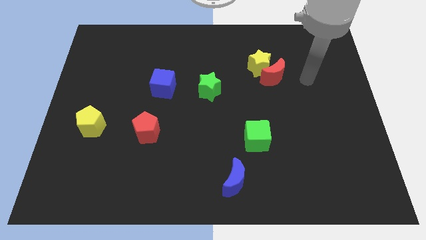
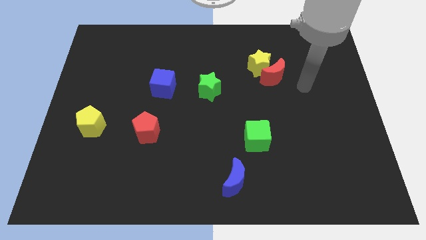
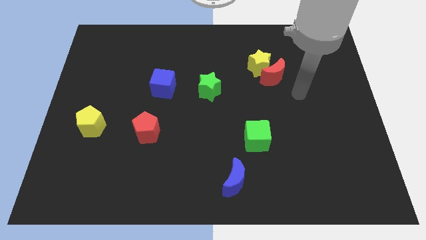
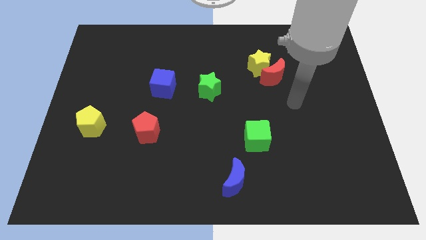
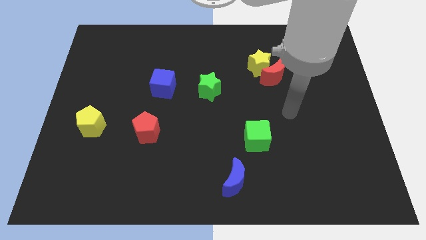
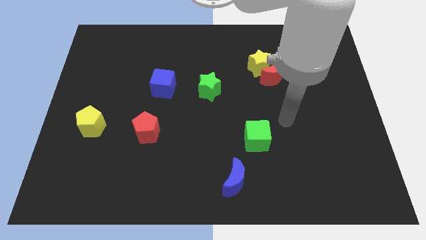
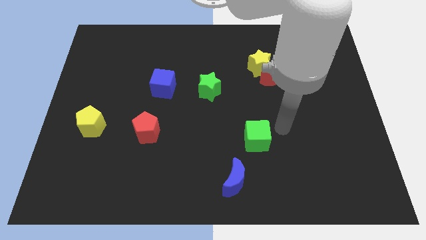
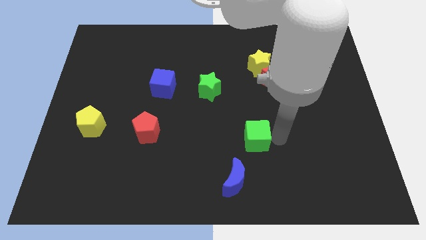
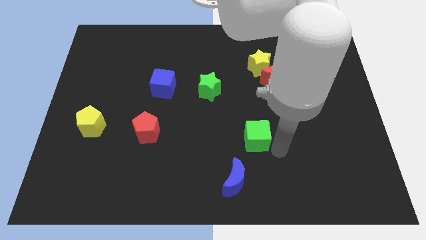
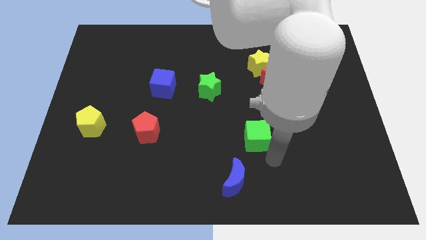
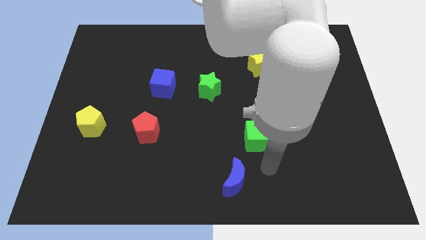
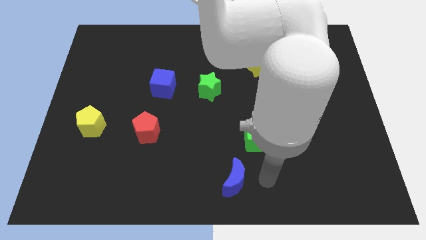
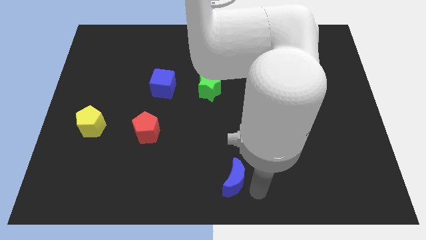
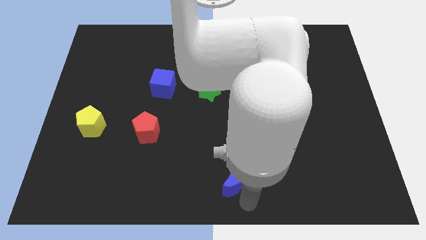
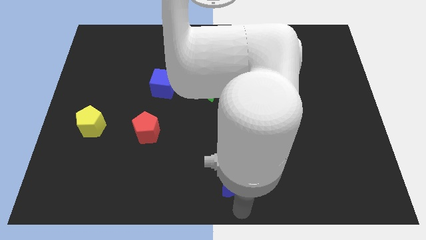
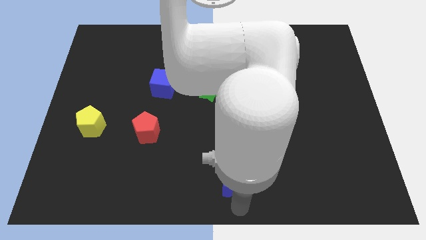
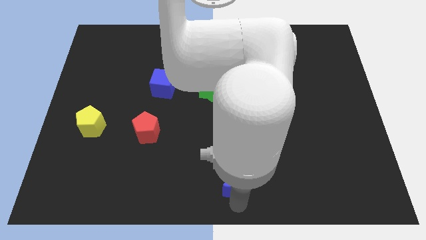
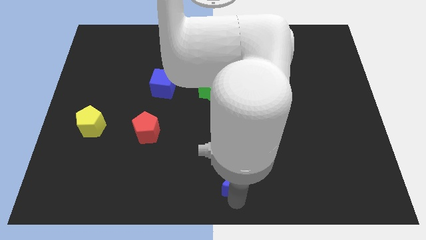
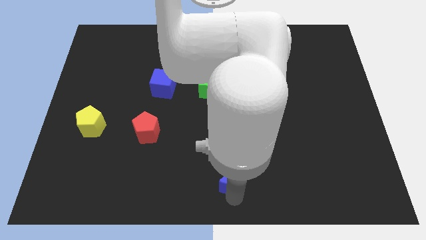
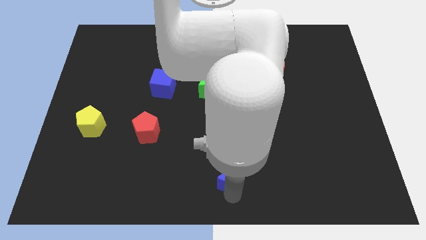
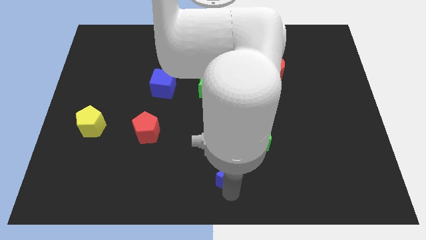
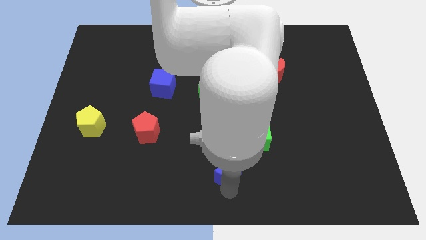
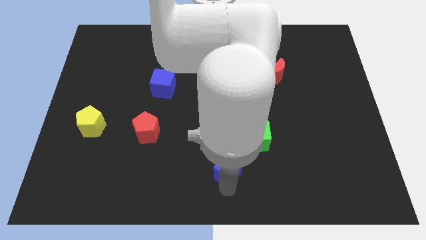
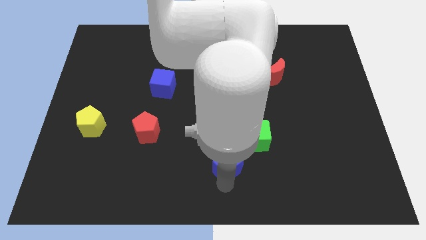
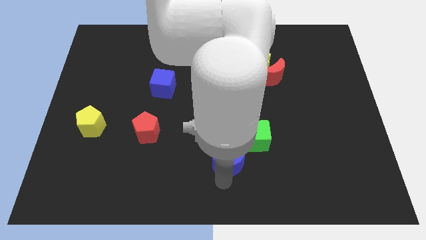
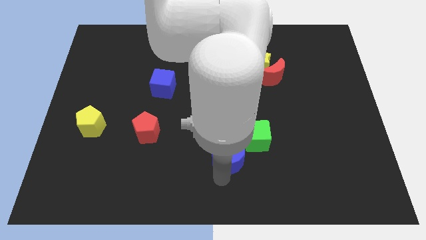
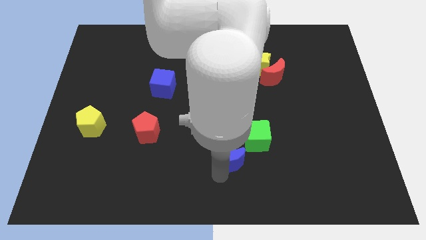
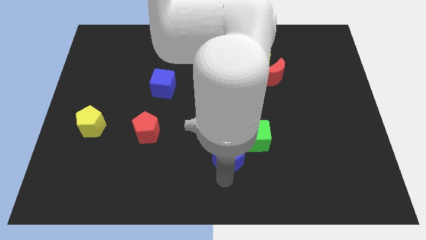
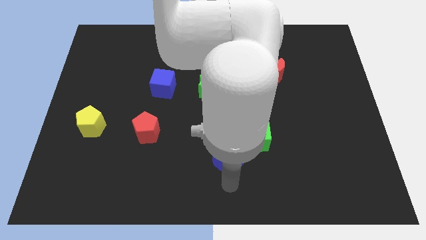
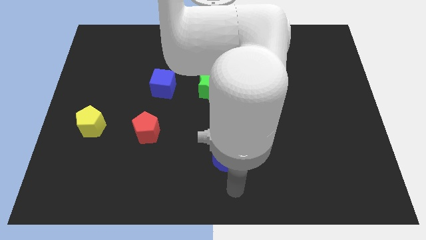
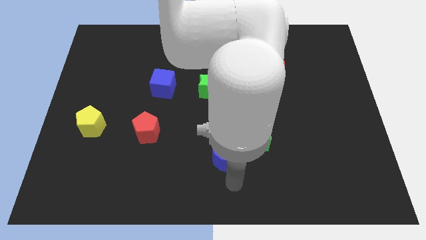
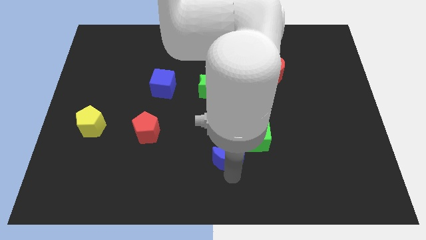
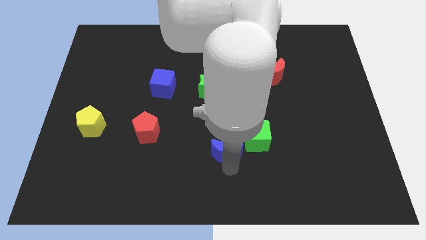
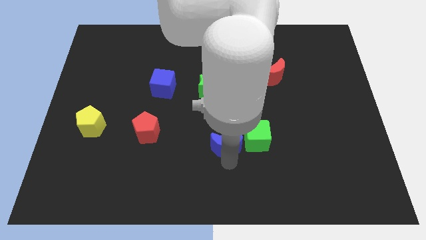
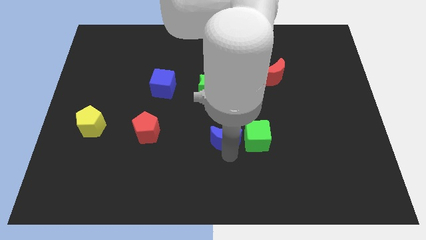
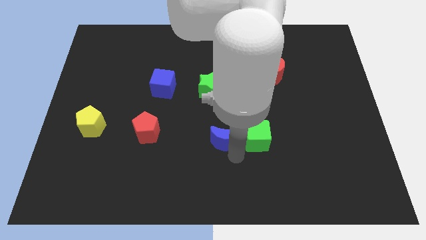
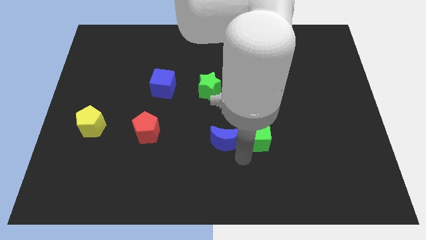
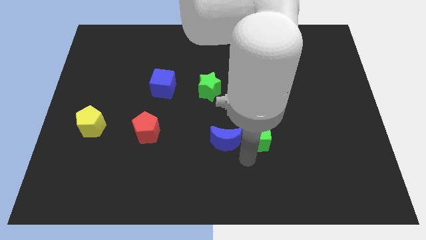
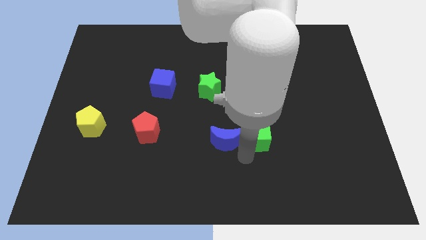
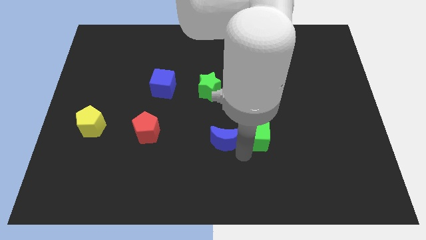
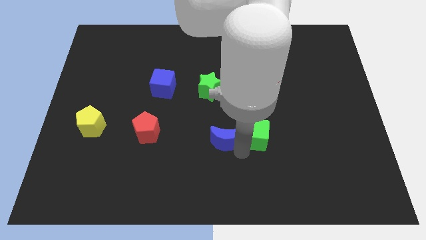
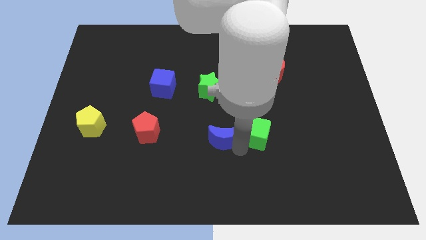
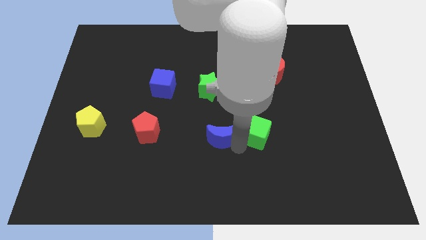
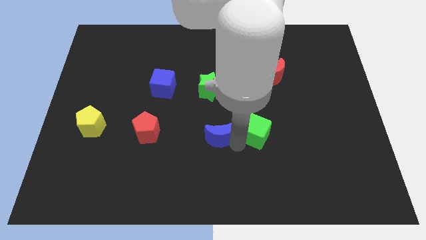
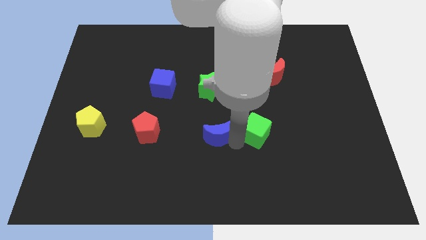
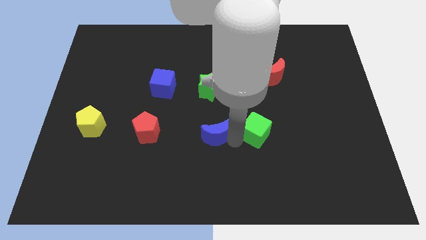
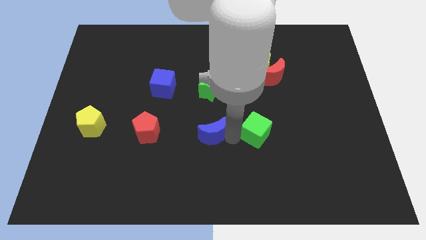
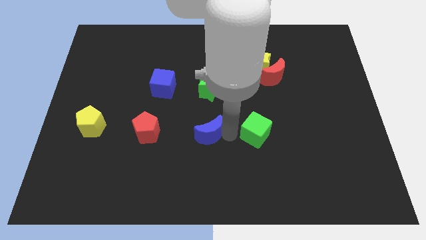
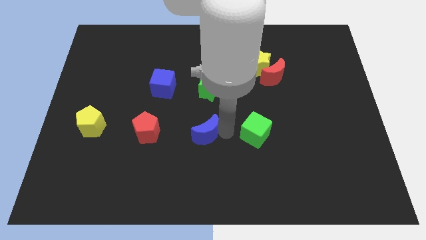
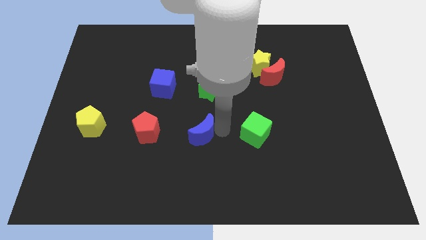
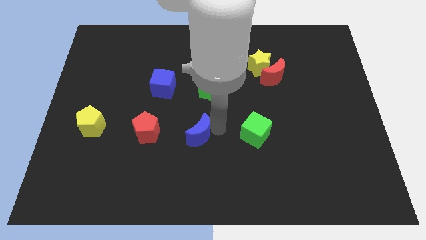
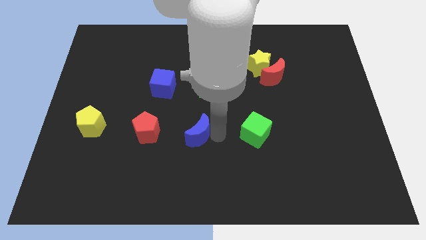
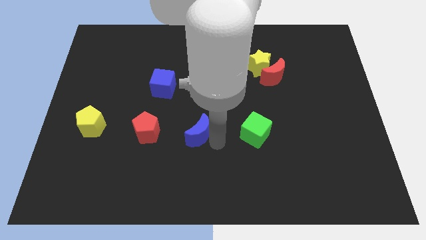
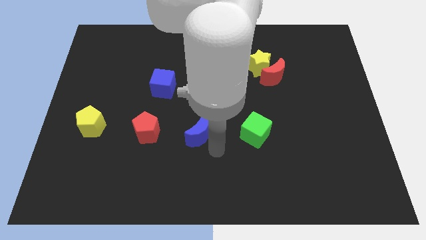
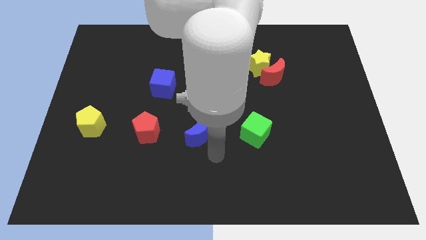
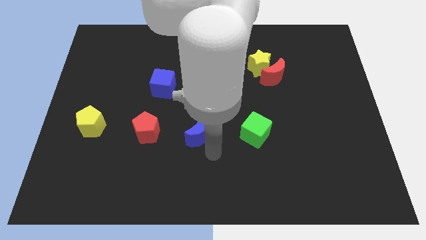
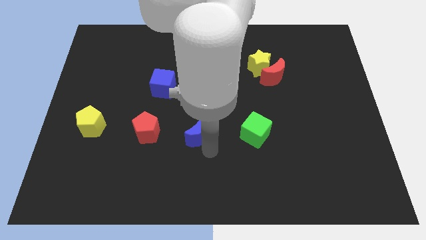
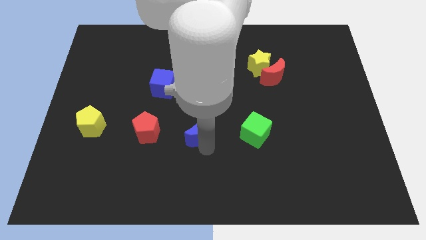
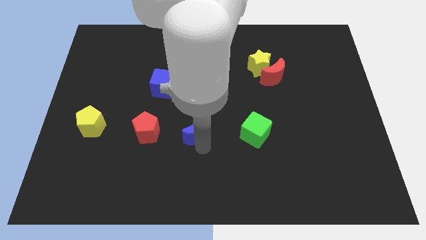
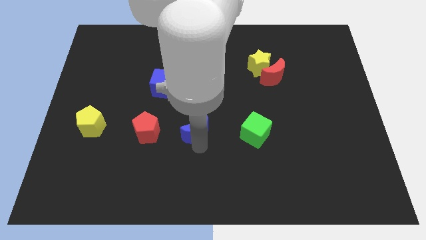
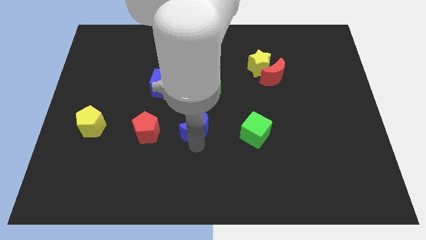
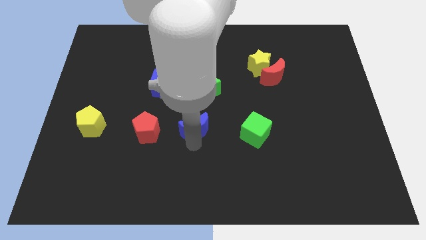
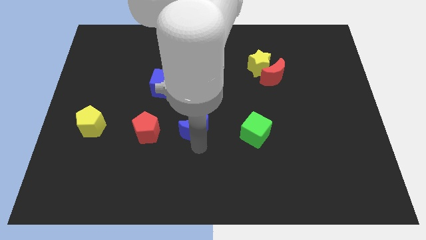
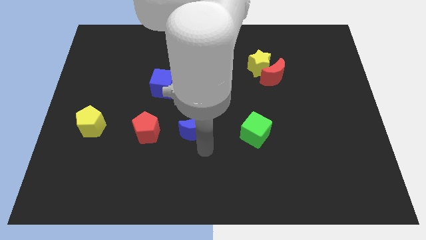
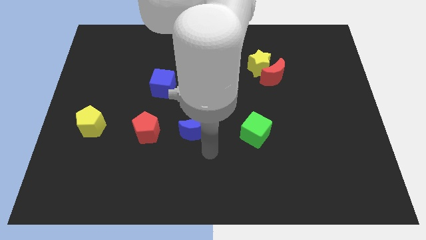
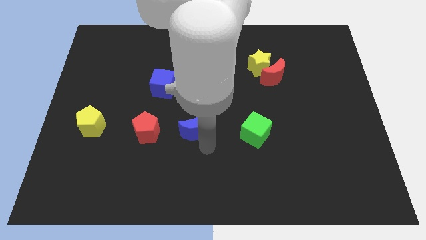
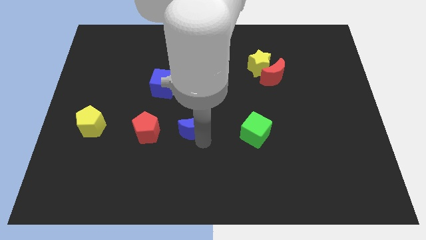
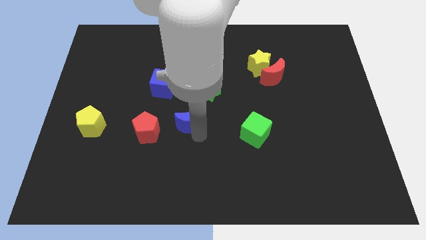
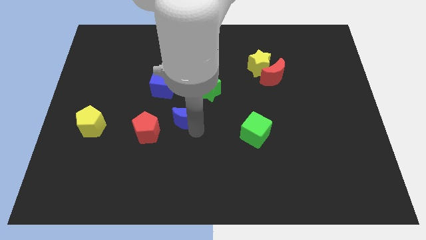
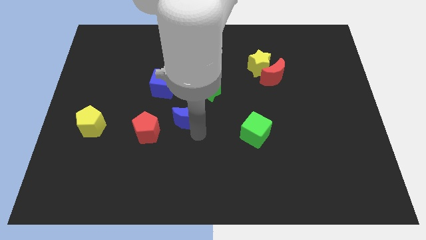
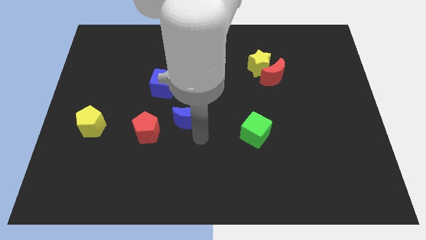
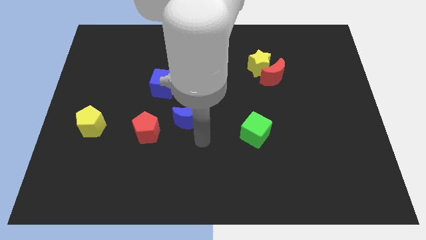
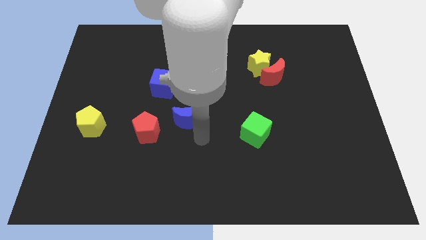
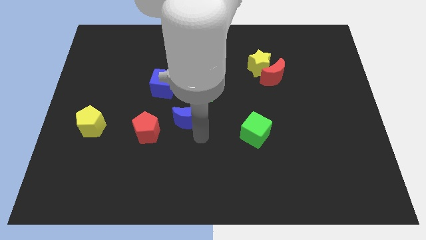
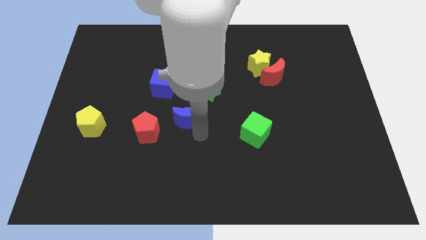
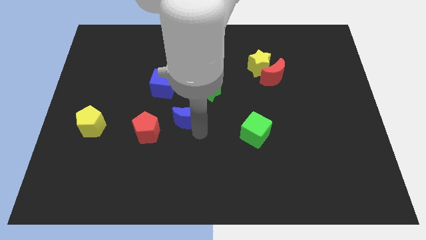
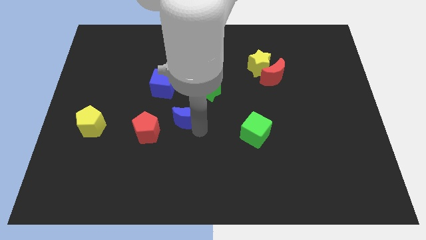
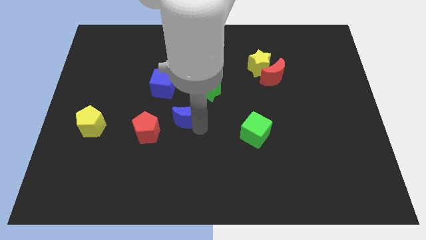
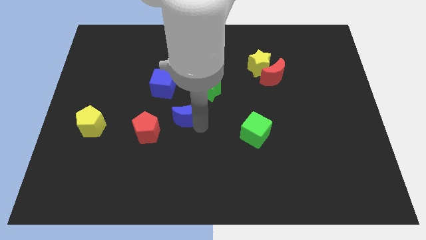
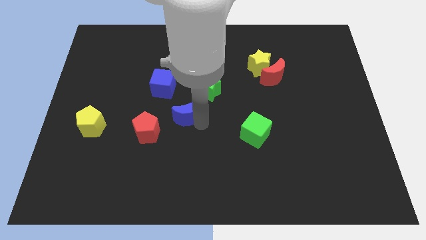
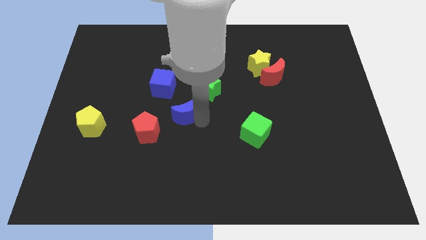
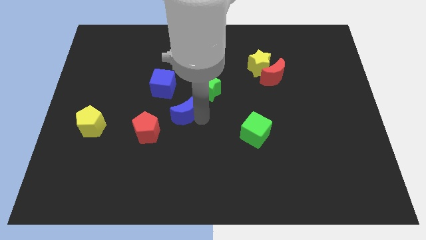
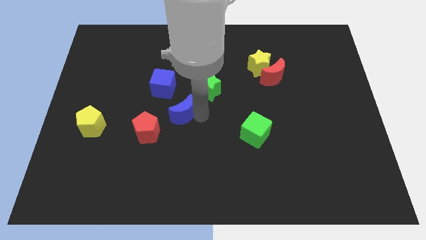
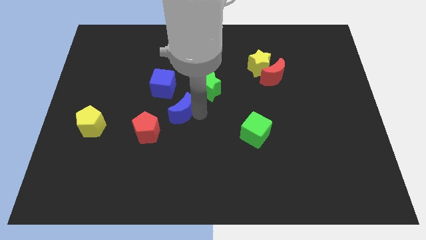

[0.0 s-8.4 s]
move the blue moon diagonally up and to the left

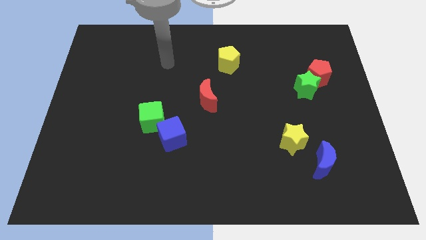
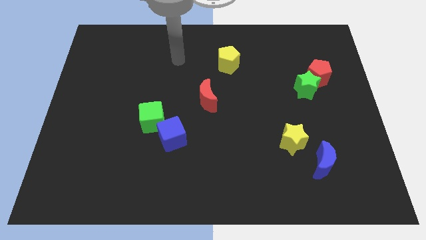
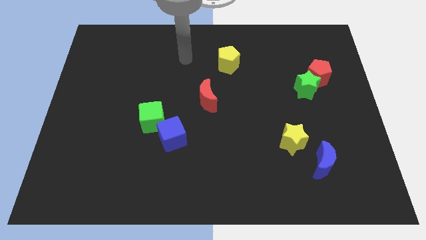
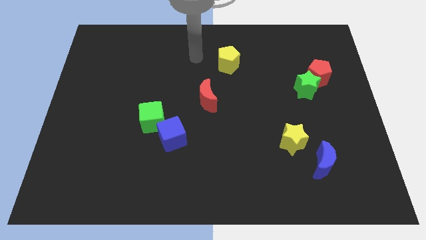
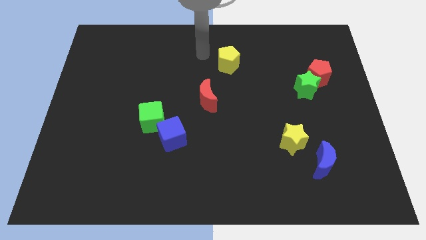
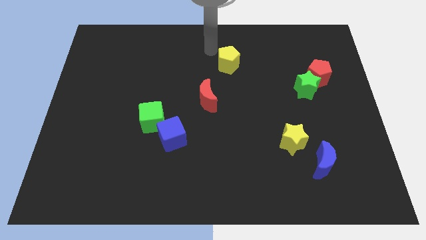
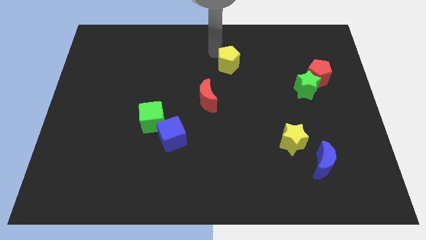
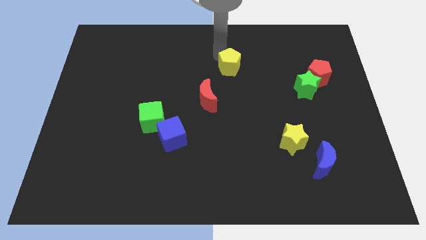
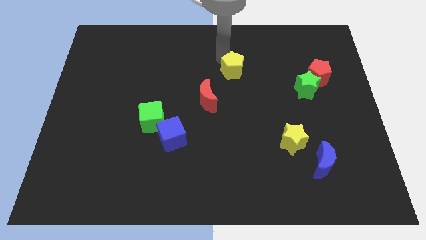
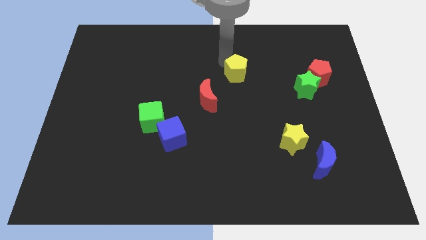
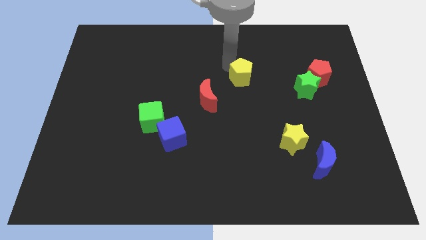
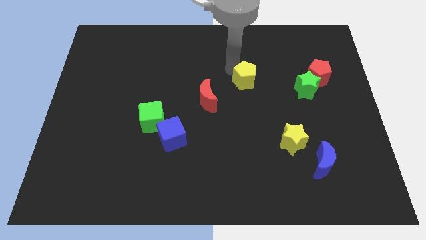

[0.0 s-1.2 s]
slightly slide the yellow pentagon down and right diagonally
